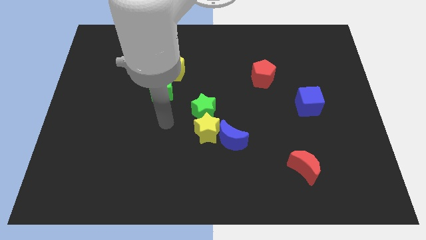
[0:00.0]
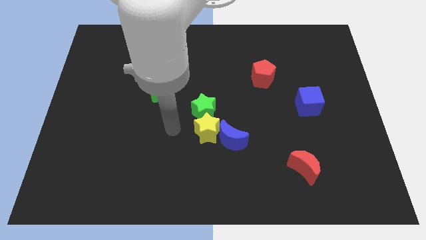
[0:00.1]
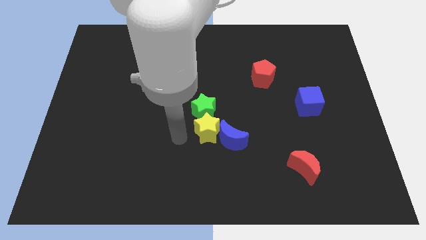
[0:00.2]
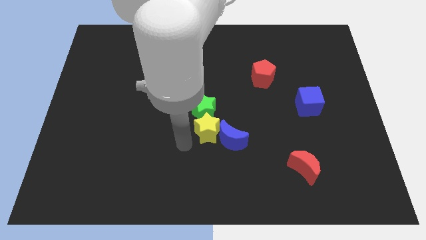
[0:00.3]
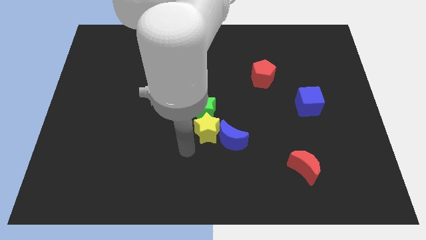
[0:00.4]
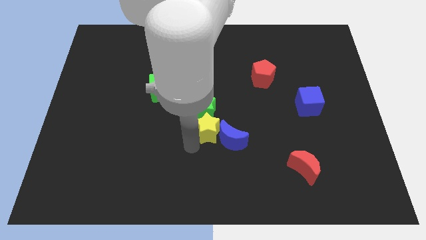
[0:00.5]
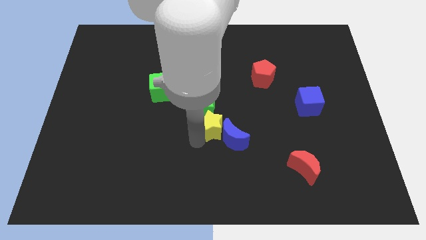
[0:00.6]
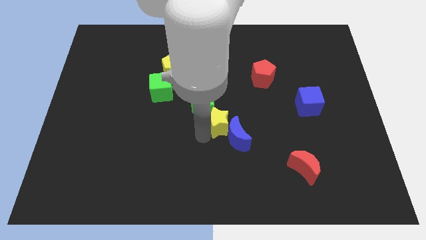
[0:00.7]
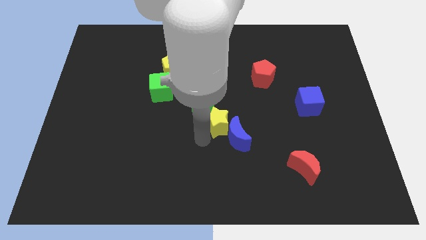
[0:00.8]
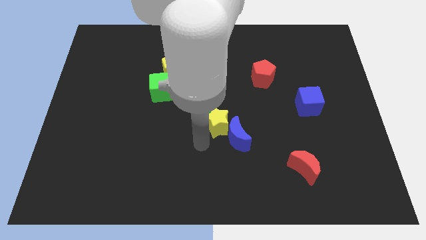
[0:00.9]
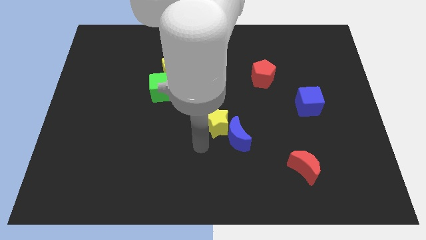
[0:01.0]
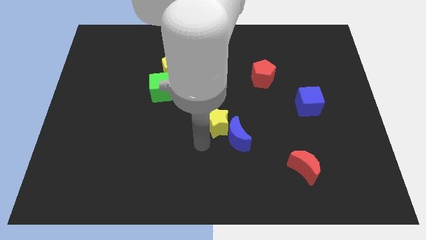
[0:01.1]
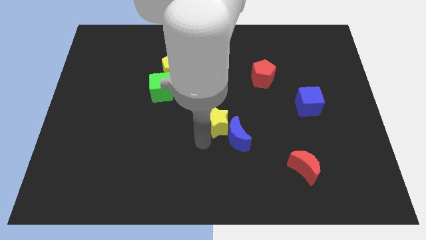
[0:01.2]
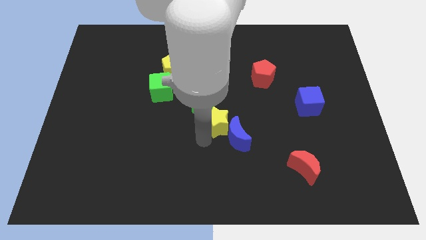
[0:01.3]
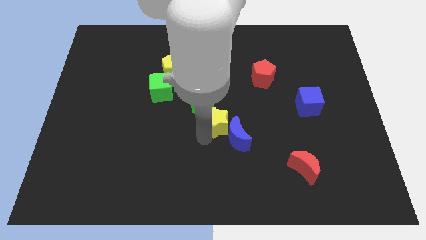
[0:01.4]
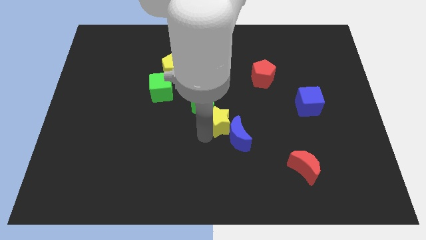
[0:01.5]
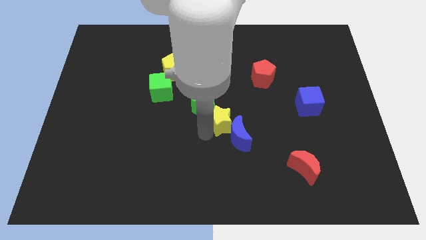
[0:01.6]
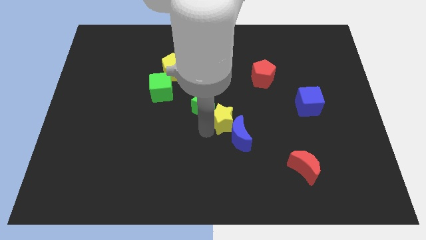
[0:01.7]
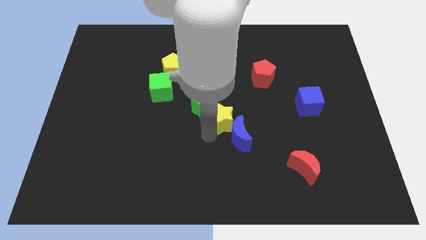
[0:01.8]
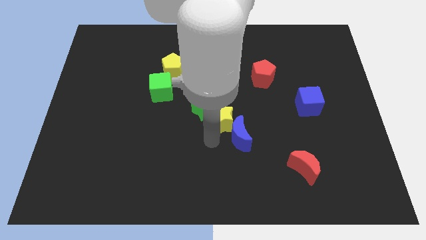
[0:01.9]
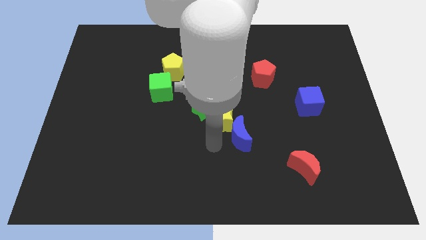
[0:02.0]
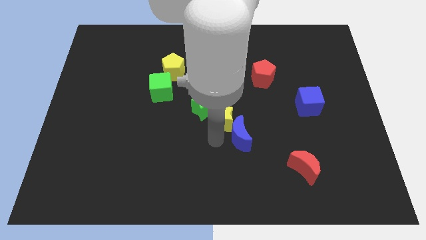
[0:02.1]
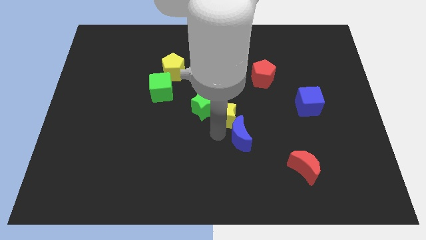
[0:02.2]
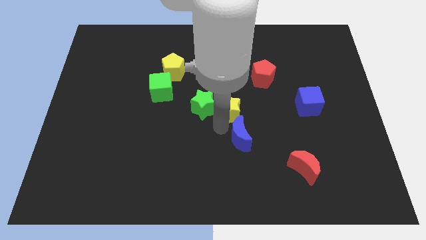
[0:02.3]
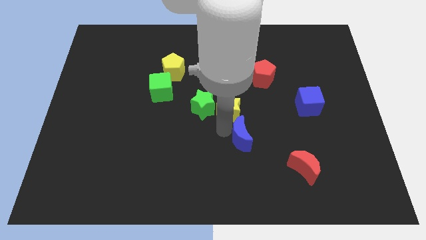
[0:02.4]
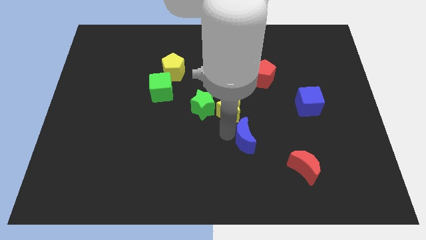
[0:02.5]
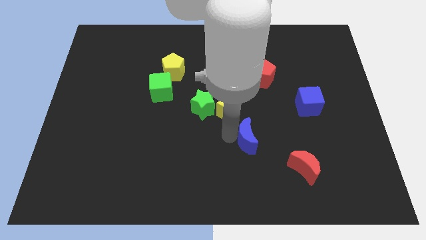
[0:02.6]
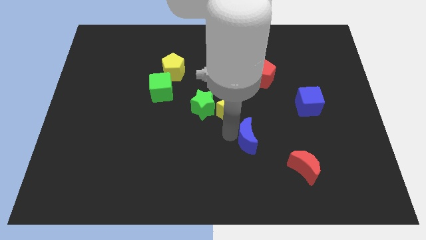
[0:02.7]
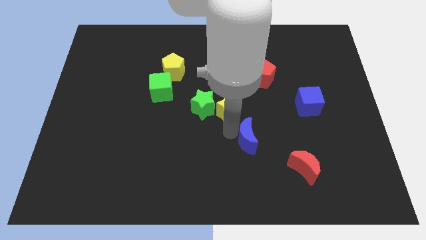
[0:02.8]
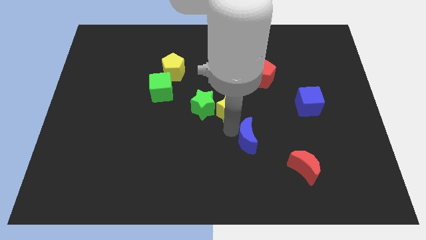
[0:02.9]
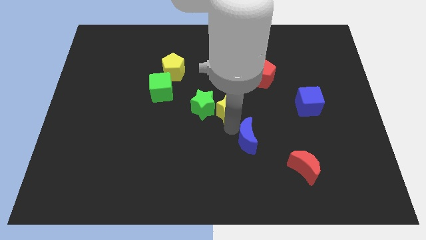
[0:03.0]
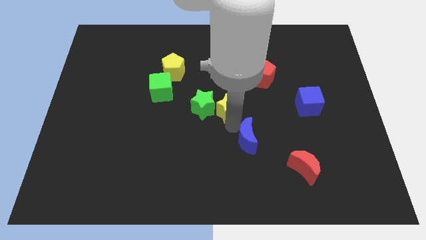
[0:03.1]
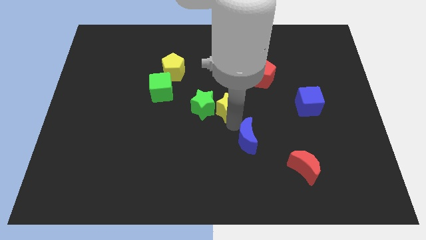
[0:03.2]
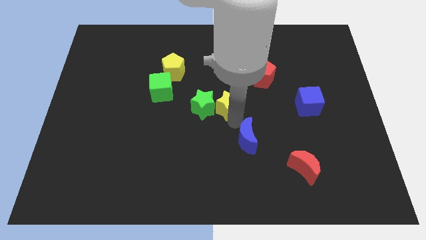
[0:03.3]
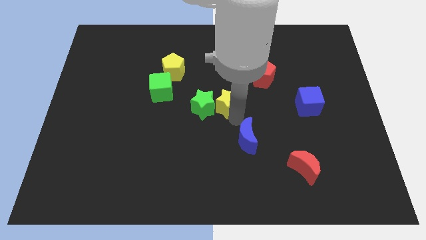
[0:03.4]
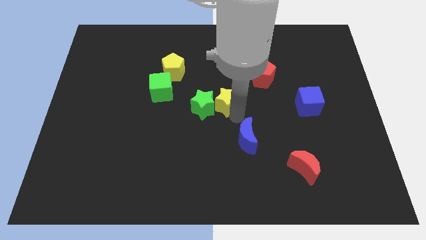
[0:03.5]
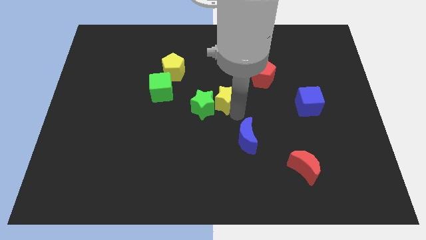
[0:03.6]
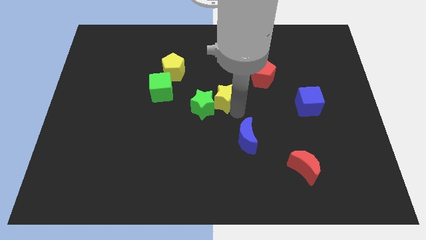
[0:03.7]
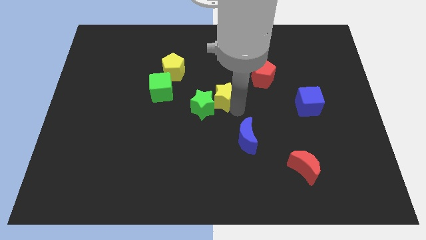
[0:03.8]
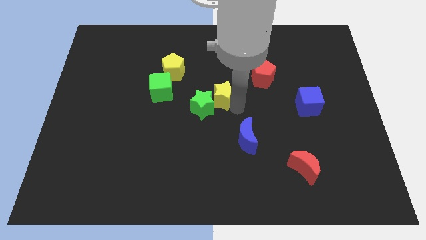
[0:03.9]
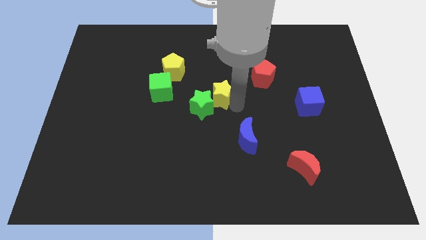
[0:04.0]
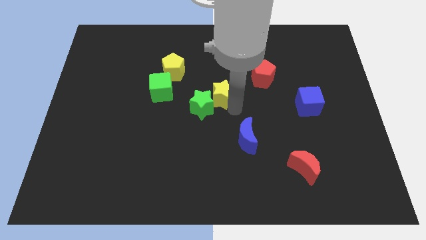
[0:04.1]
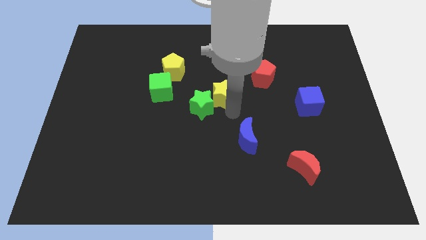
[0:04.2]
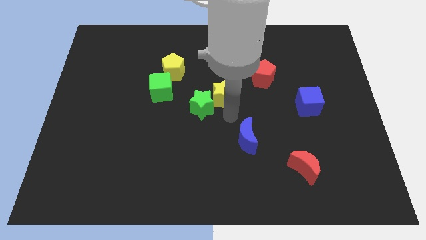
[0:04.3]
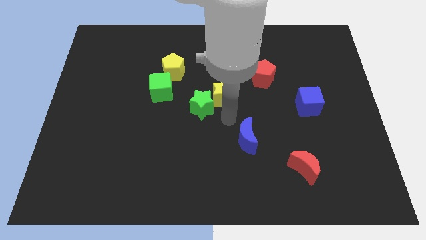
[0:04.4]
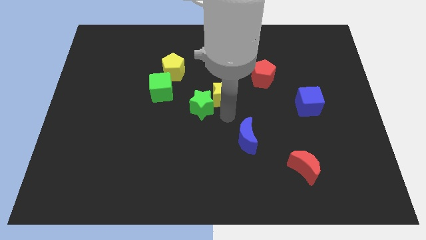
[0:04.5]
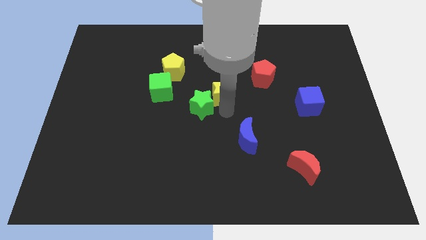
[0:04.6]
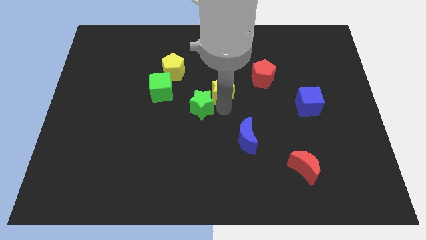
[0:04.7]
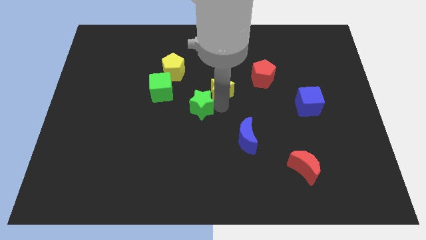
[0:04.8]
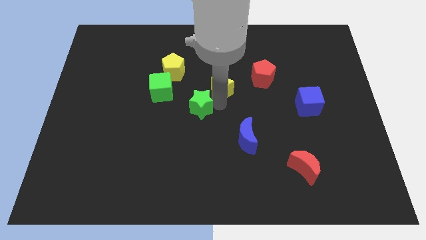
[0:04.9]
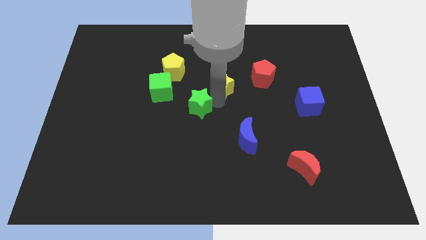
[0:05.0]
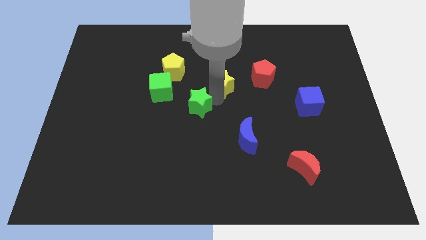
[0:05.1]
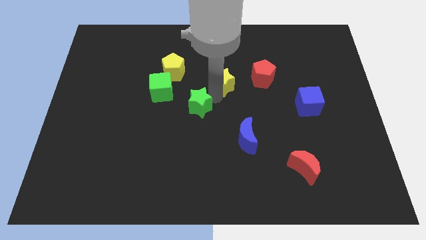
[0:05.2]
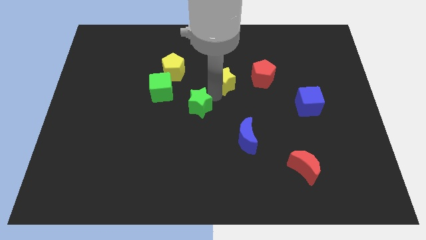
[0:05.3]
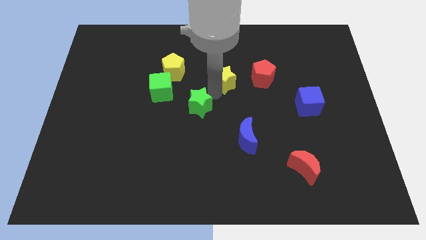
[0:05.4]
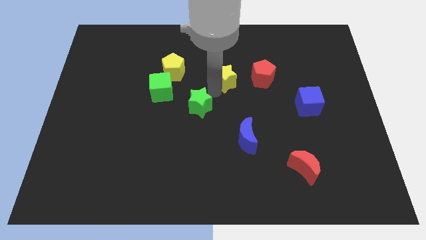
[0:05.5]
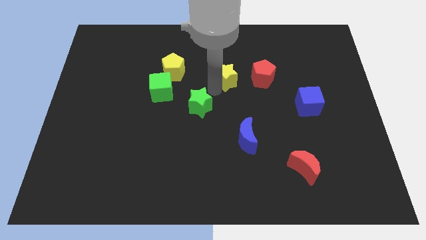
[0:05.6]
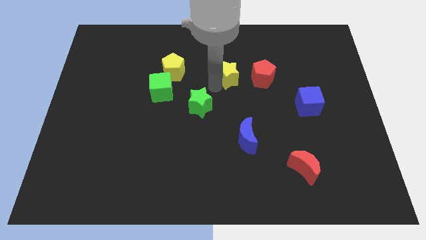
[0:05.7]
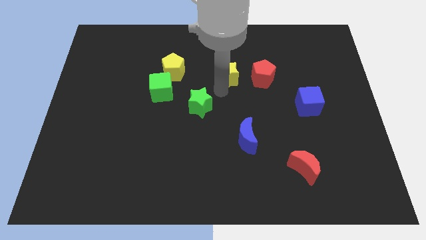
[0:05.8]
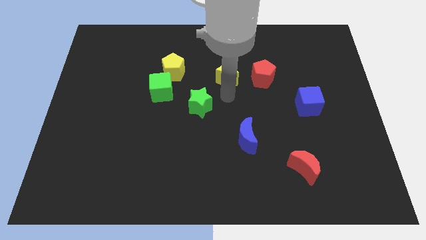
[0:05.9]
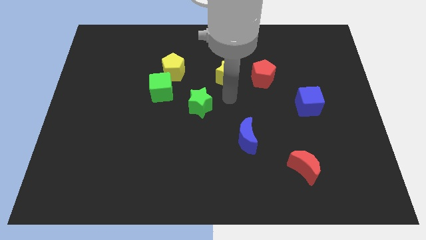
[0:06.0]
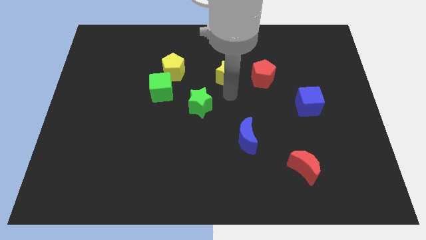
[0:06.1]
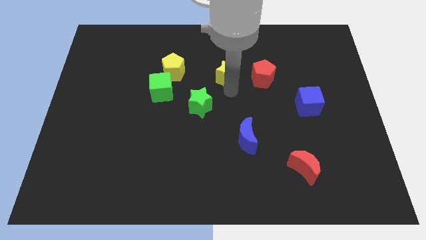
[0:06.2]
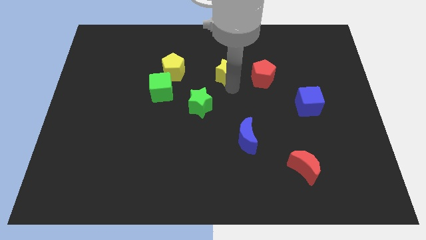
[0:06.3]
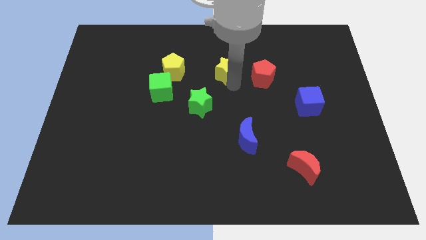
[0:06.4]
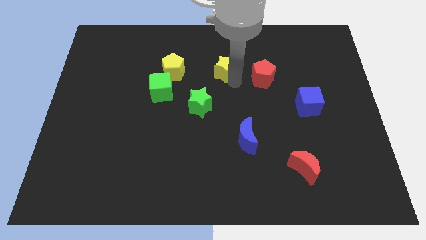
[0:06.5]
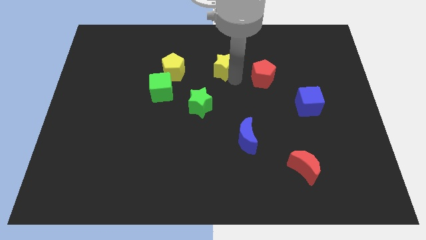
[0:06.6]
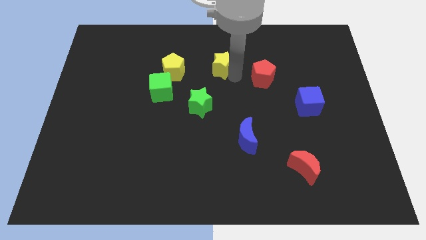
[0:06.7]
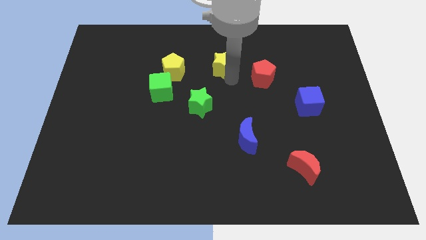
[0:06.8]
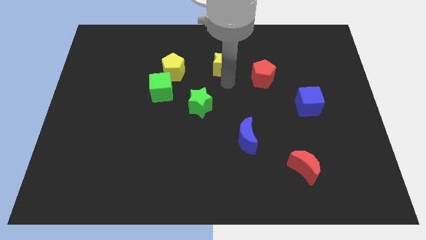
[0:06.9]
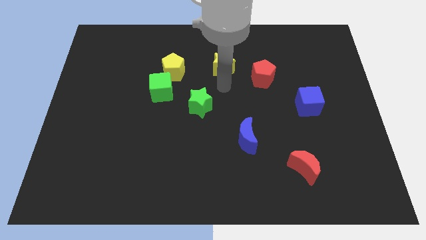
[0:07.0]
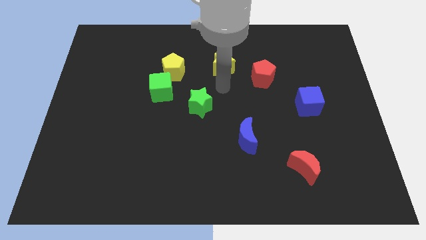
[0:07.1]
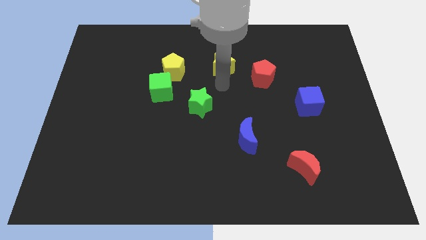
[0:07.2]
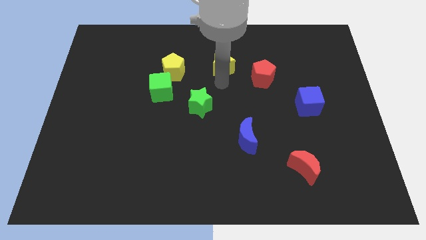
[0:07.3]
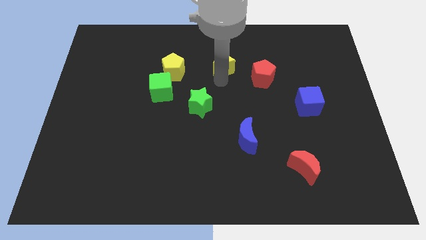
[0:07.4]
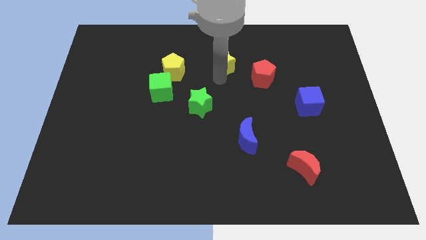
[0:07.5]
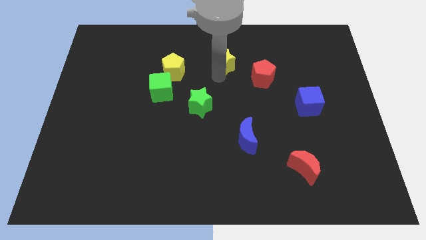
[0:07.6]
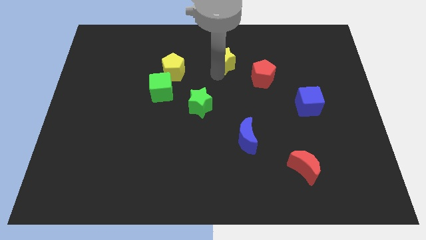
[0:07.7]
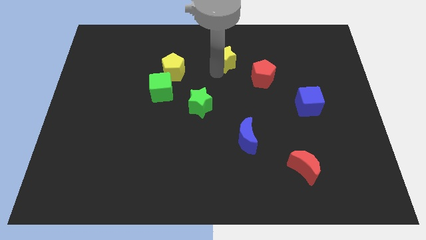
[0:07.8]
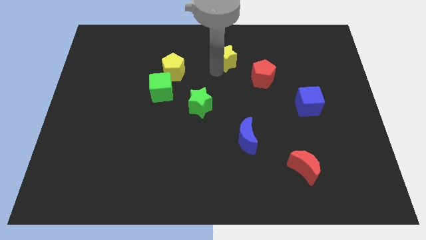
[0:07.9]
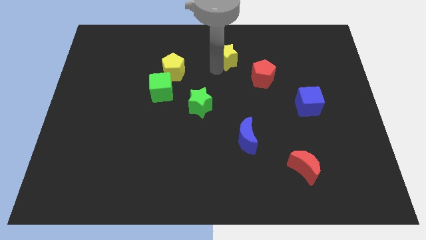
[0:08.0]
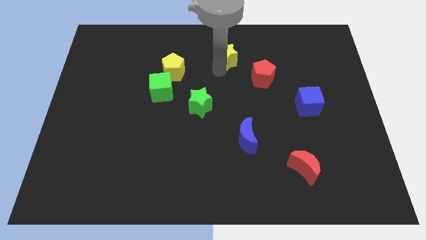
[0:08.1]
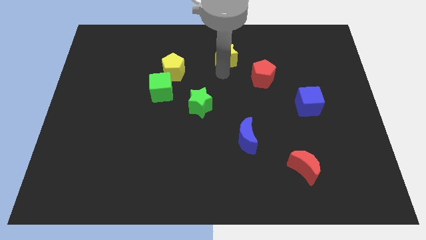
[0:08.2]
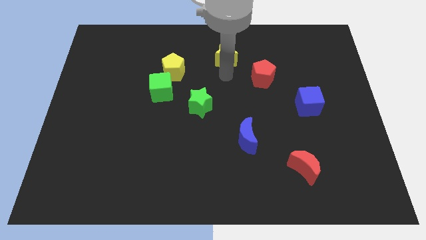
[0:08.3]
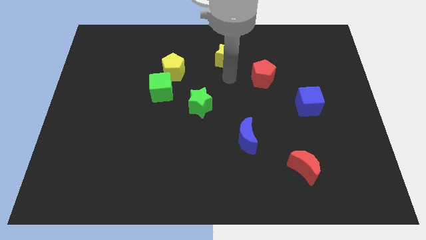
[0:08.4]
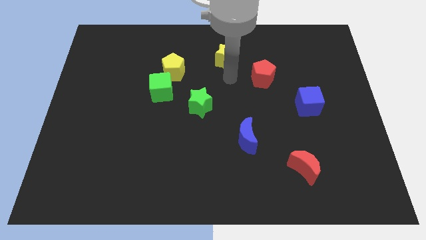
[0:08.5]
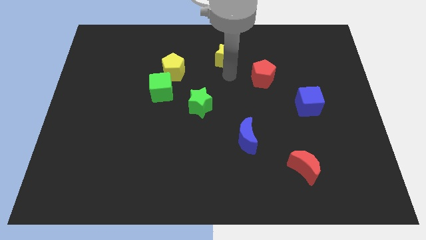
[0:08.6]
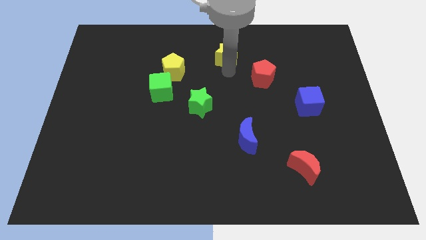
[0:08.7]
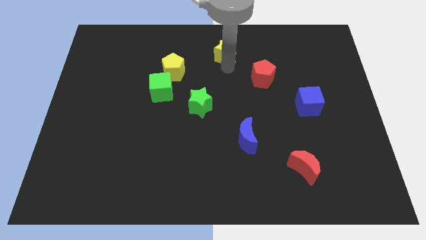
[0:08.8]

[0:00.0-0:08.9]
push the yellow star to the top side
